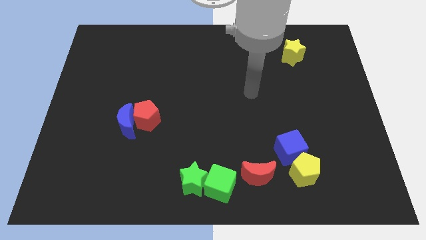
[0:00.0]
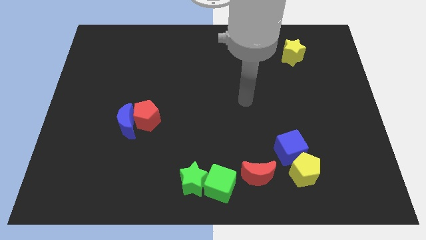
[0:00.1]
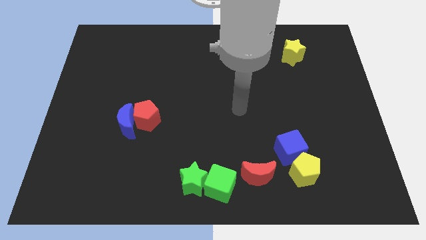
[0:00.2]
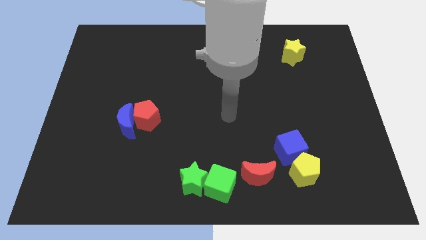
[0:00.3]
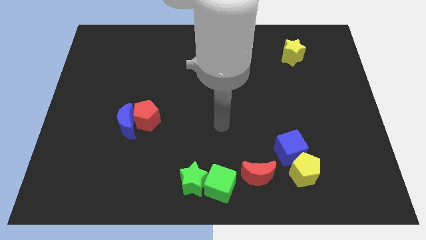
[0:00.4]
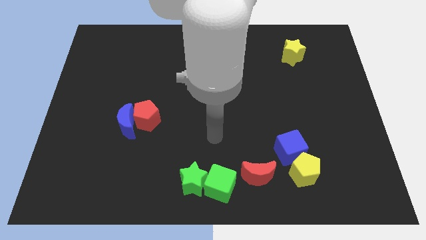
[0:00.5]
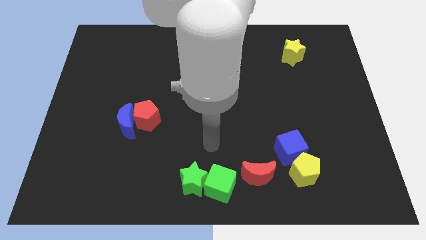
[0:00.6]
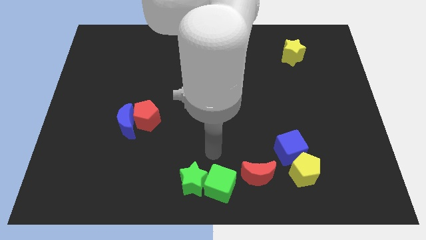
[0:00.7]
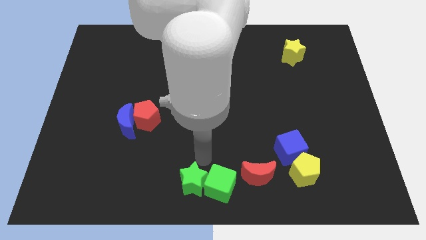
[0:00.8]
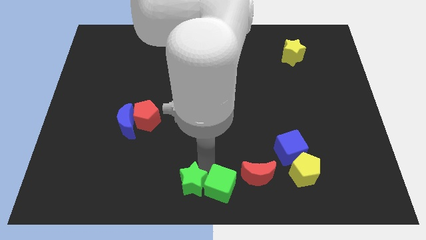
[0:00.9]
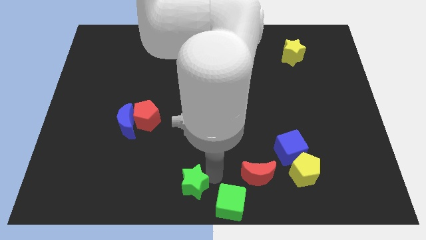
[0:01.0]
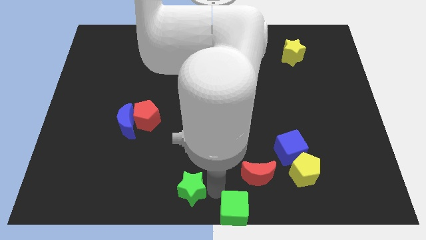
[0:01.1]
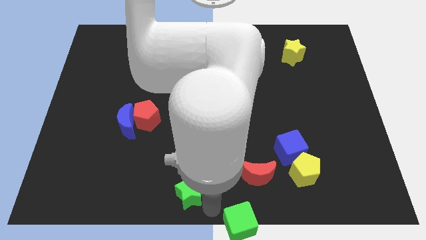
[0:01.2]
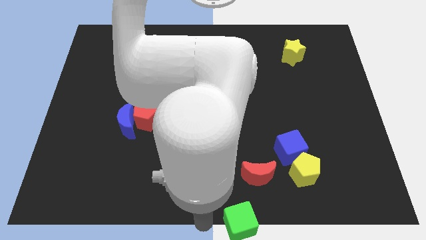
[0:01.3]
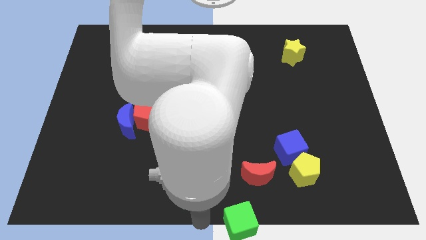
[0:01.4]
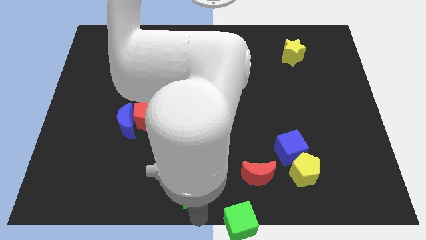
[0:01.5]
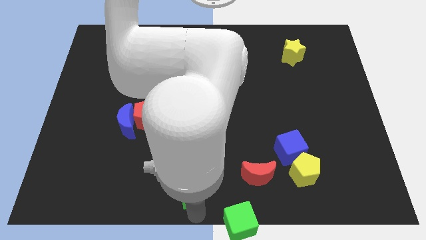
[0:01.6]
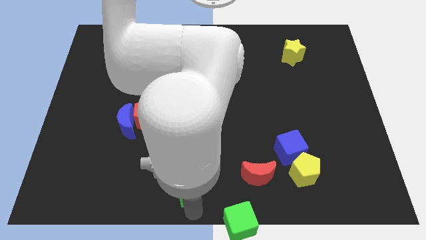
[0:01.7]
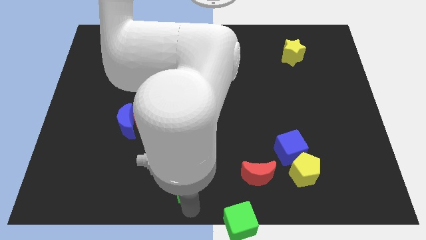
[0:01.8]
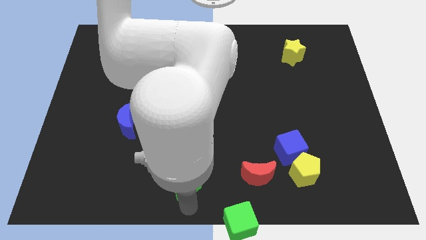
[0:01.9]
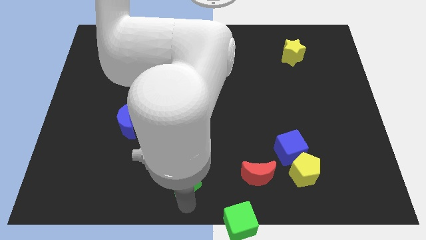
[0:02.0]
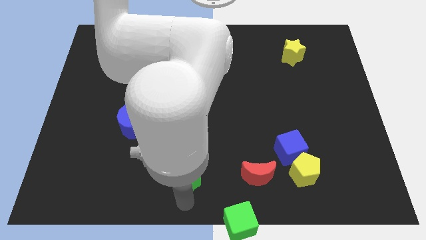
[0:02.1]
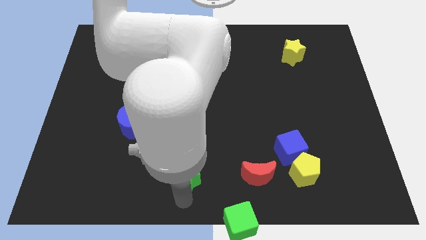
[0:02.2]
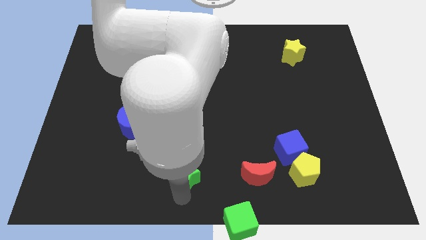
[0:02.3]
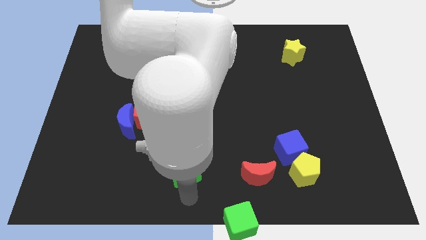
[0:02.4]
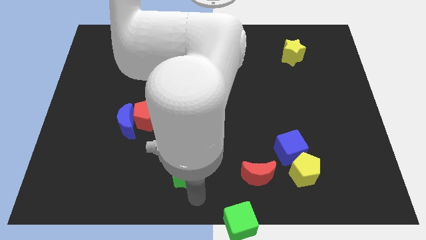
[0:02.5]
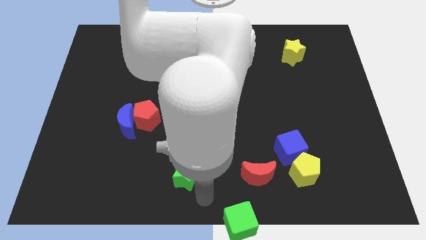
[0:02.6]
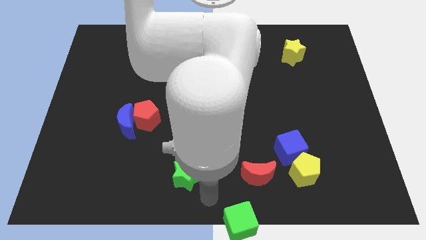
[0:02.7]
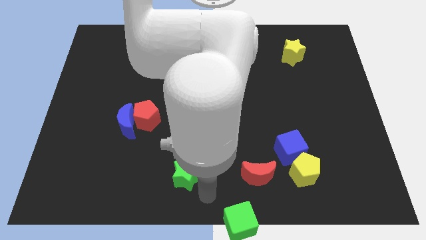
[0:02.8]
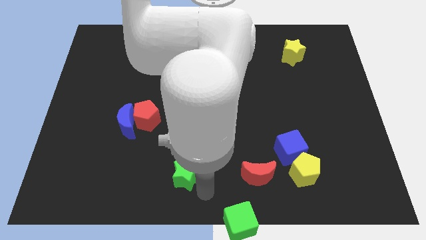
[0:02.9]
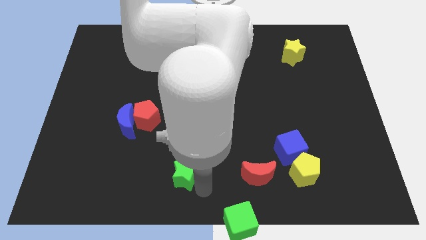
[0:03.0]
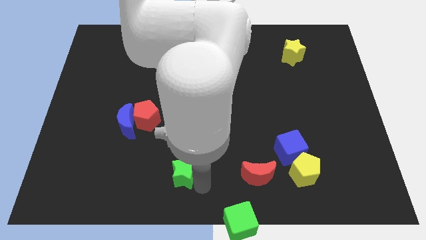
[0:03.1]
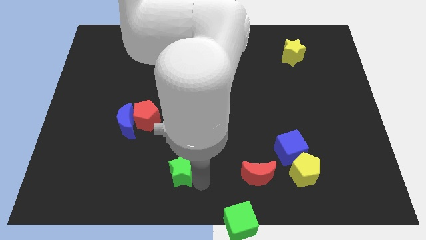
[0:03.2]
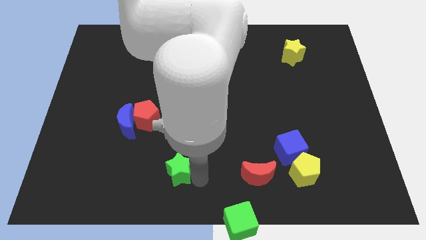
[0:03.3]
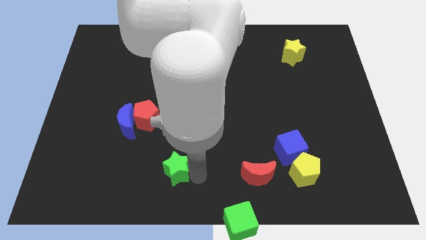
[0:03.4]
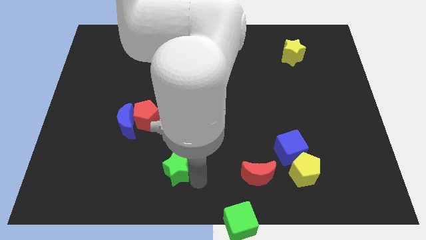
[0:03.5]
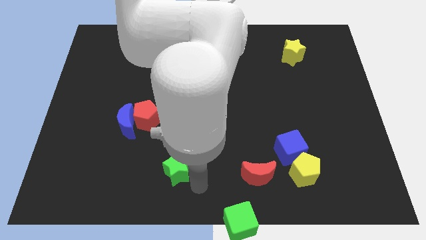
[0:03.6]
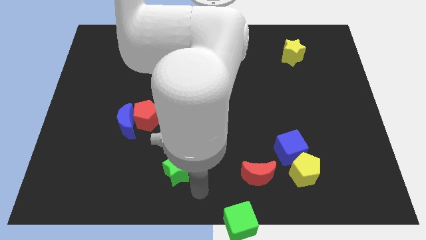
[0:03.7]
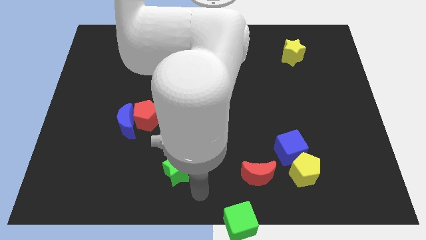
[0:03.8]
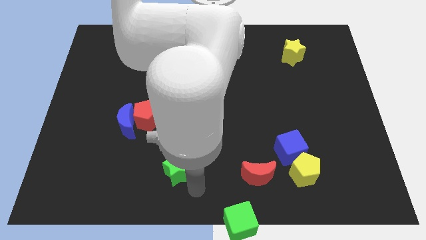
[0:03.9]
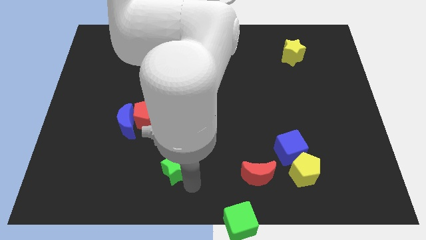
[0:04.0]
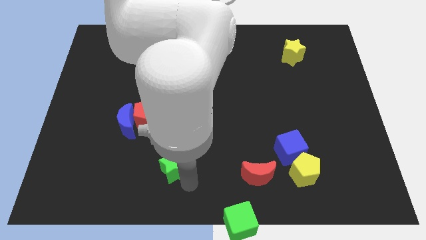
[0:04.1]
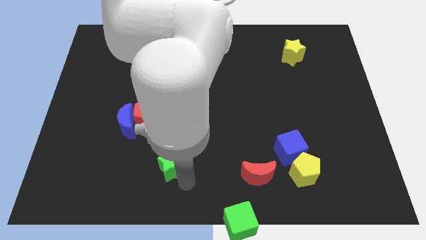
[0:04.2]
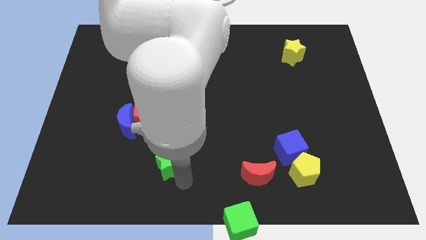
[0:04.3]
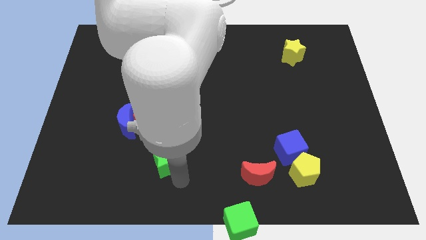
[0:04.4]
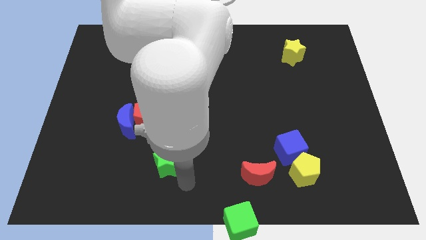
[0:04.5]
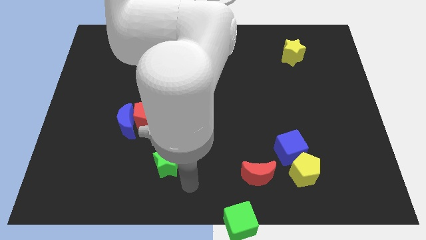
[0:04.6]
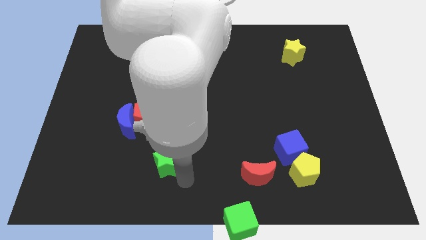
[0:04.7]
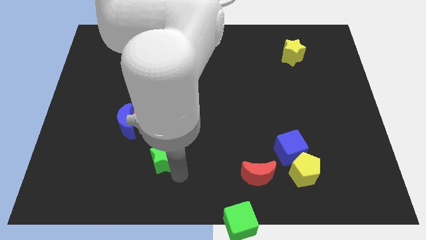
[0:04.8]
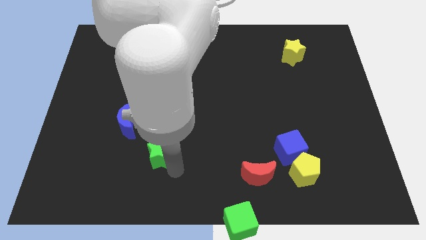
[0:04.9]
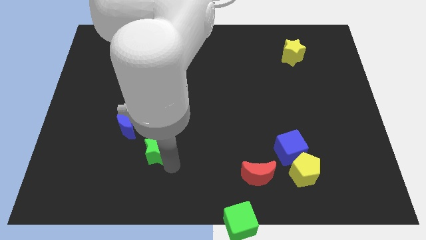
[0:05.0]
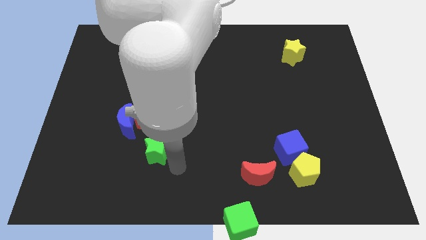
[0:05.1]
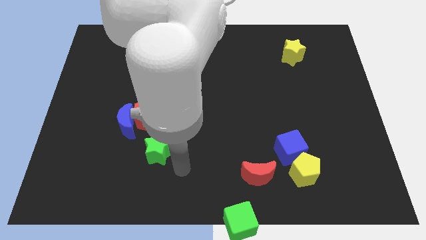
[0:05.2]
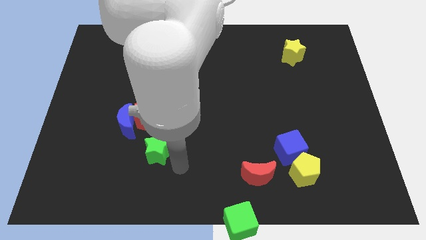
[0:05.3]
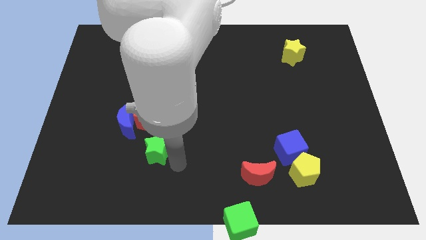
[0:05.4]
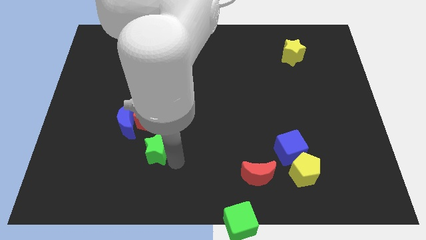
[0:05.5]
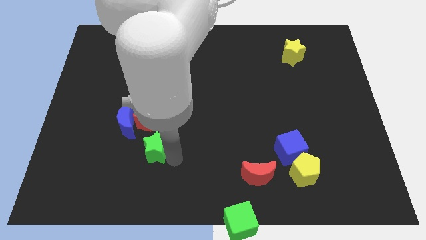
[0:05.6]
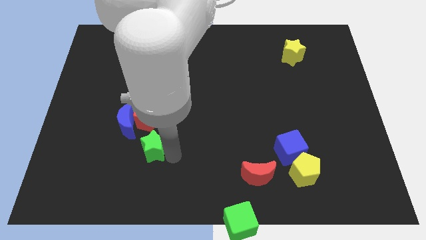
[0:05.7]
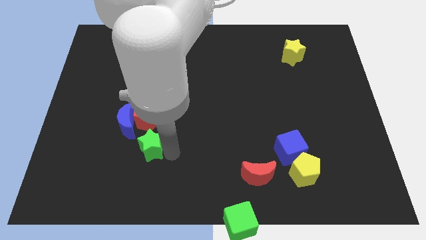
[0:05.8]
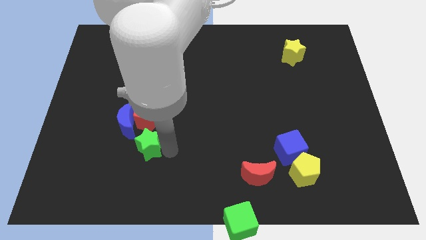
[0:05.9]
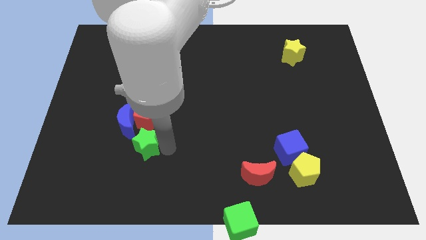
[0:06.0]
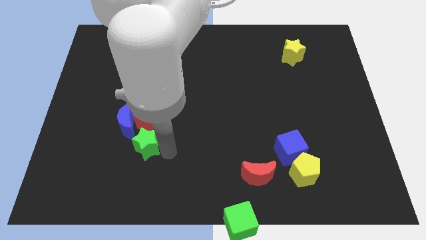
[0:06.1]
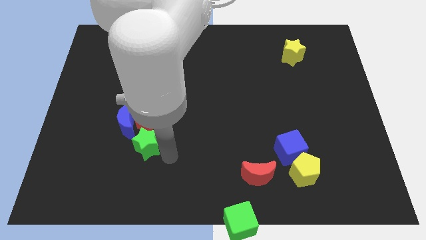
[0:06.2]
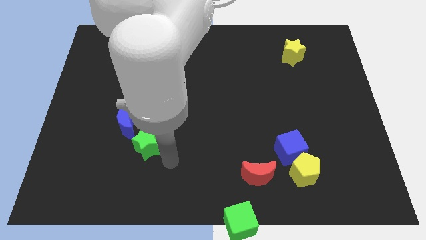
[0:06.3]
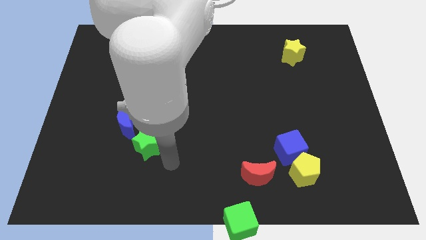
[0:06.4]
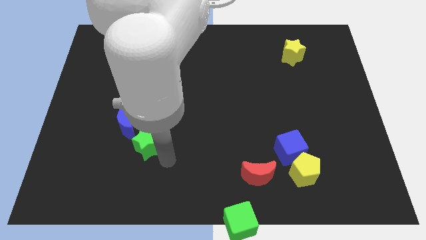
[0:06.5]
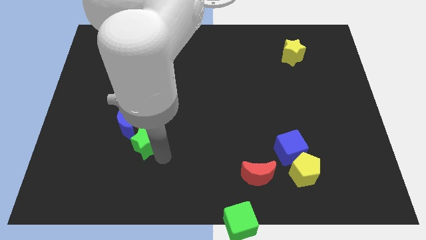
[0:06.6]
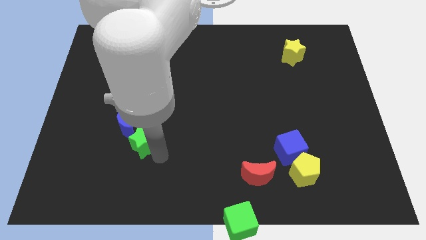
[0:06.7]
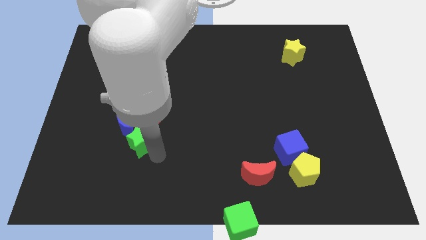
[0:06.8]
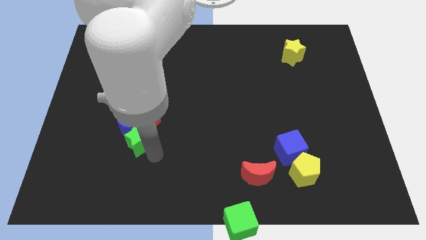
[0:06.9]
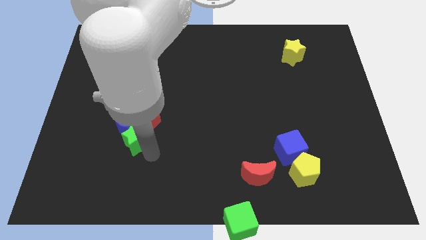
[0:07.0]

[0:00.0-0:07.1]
move the green star next to the blue moon
